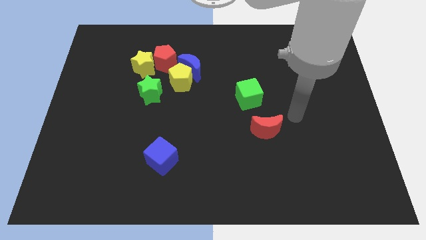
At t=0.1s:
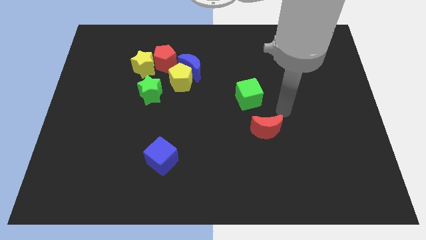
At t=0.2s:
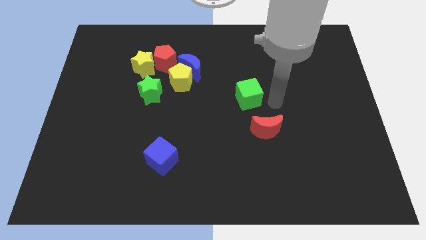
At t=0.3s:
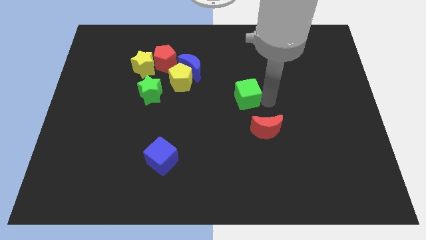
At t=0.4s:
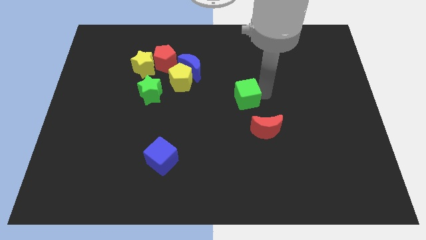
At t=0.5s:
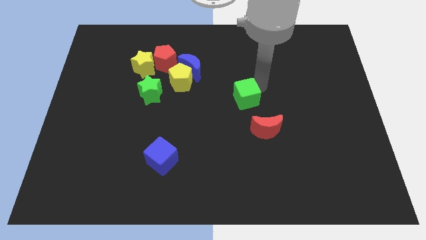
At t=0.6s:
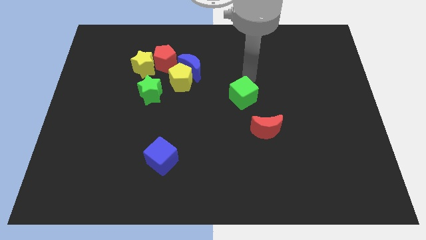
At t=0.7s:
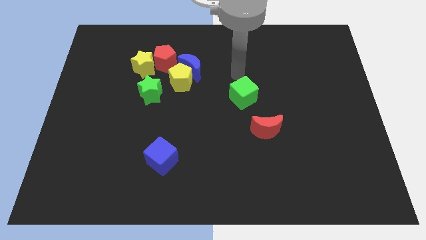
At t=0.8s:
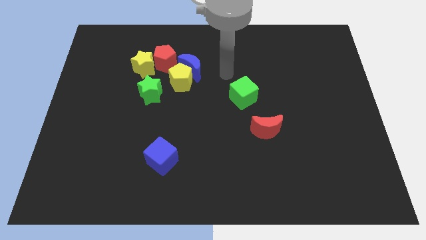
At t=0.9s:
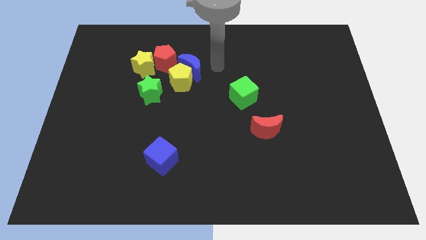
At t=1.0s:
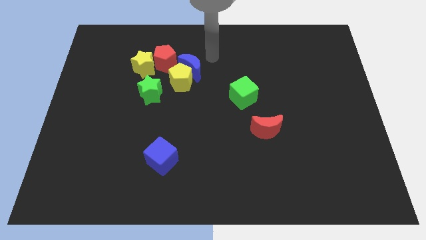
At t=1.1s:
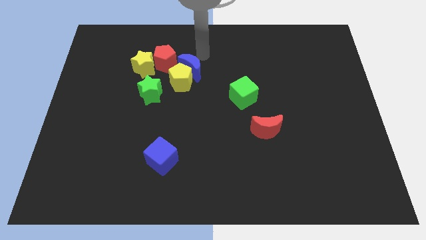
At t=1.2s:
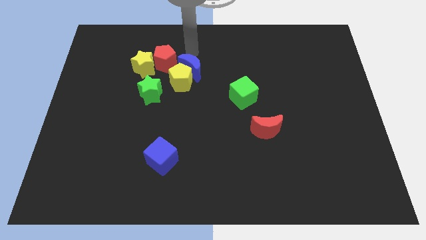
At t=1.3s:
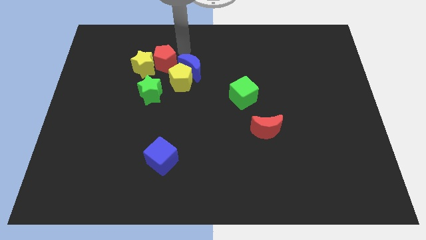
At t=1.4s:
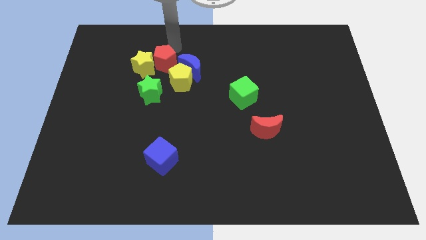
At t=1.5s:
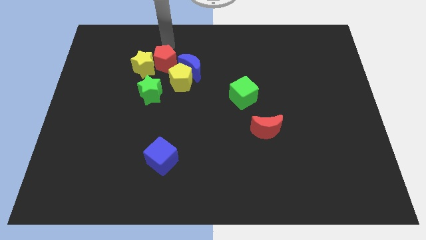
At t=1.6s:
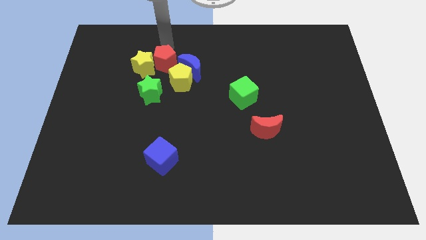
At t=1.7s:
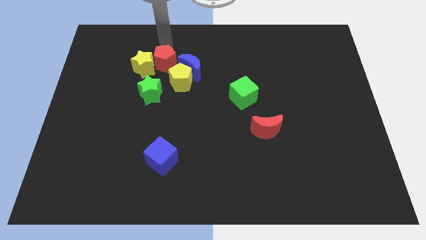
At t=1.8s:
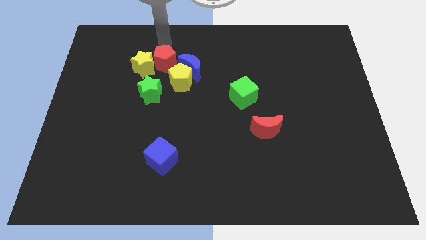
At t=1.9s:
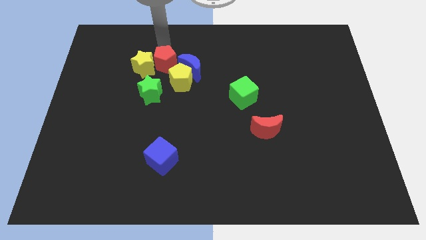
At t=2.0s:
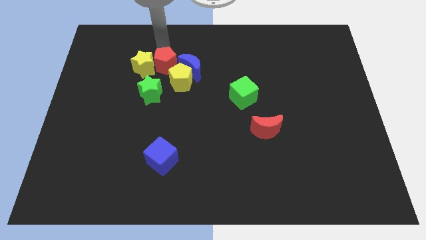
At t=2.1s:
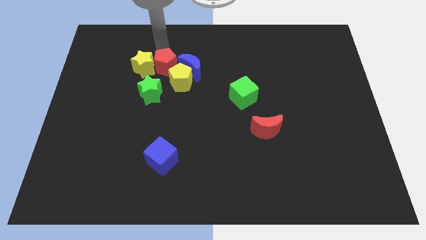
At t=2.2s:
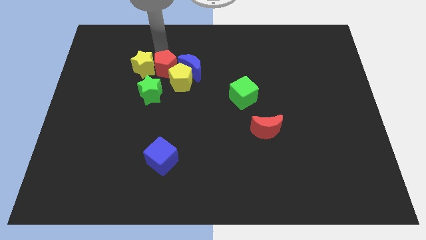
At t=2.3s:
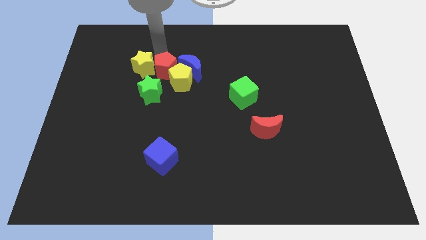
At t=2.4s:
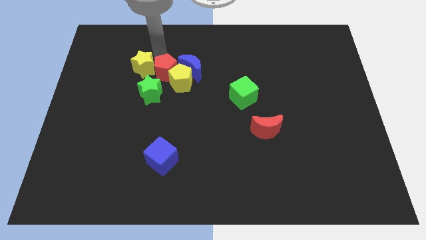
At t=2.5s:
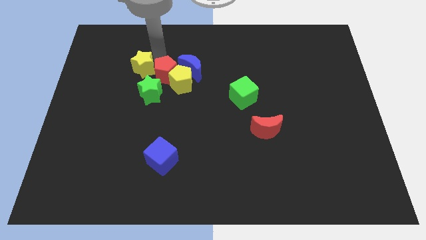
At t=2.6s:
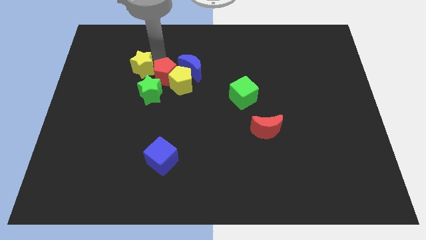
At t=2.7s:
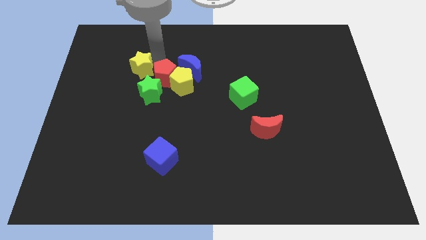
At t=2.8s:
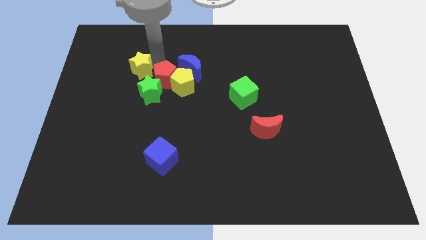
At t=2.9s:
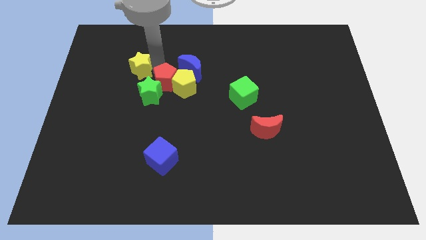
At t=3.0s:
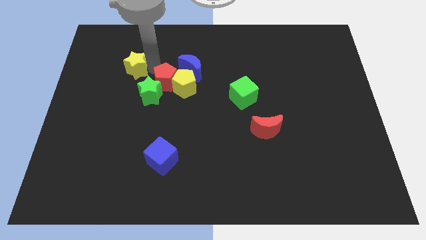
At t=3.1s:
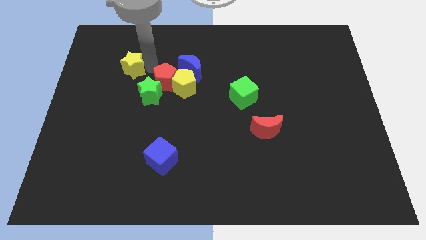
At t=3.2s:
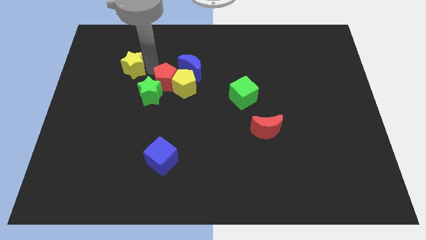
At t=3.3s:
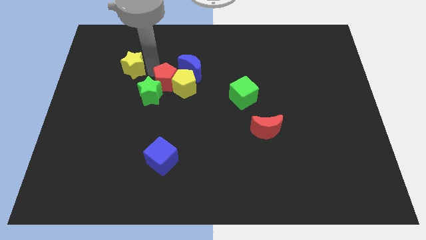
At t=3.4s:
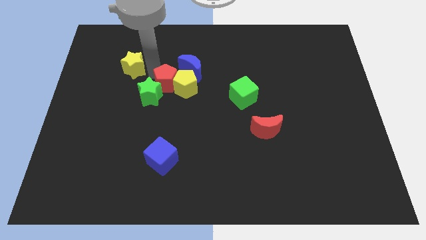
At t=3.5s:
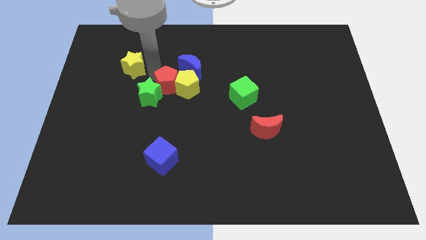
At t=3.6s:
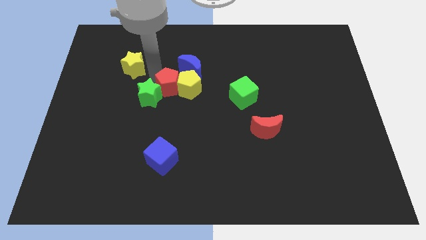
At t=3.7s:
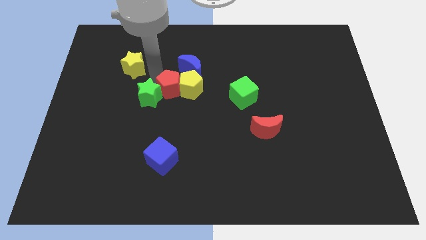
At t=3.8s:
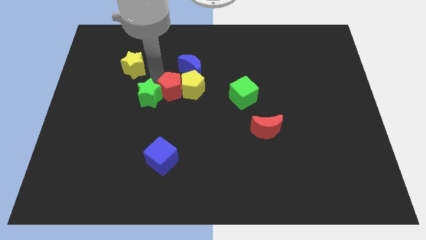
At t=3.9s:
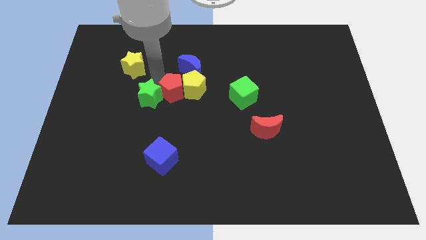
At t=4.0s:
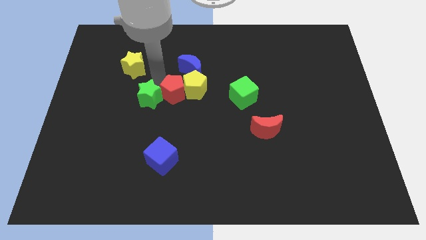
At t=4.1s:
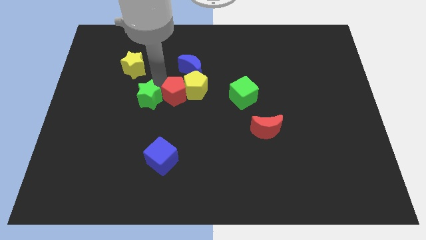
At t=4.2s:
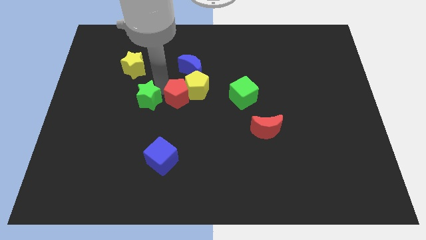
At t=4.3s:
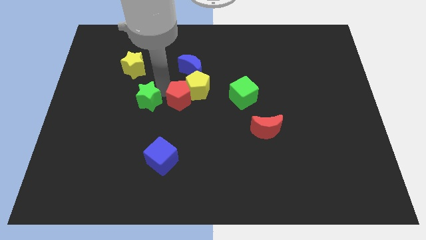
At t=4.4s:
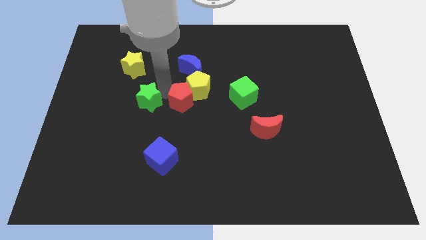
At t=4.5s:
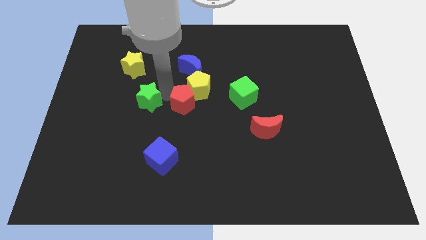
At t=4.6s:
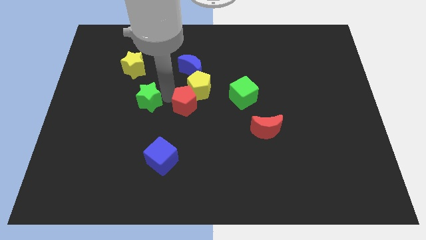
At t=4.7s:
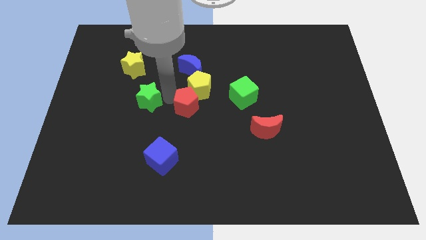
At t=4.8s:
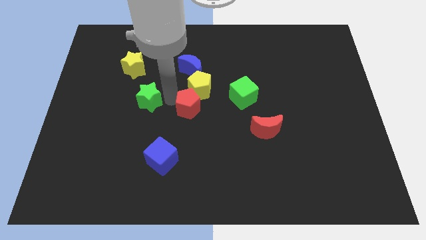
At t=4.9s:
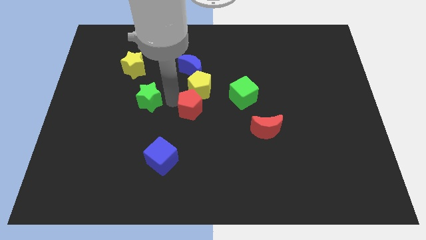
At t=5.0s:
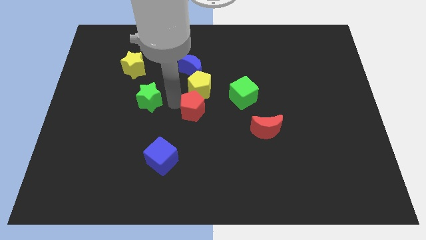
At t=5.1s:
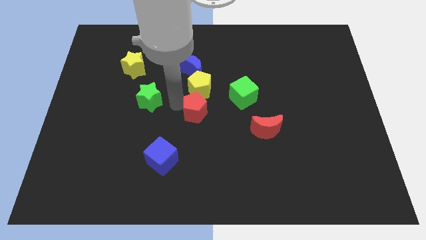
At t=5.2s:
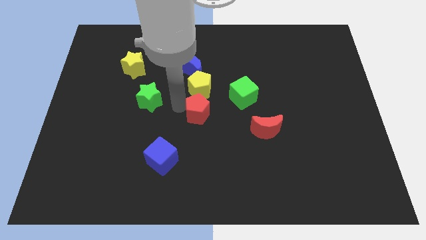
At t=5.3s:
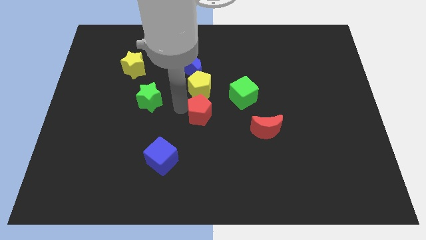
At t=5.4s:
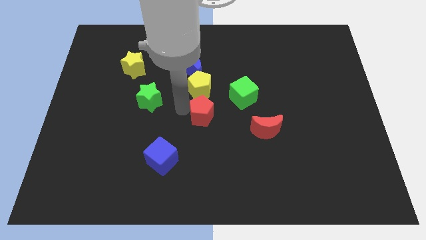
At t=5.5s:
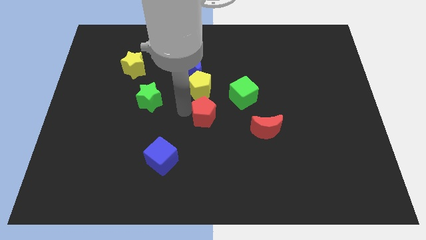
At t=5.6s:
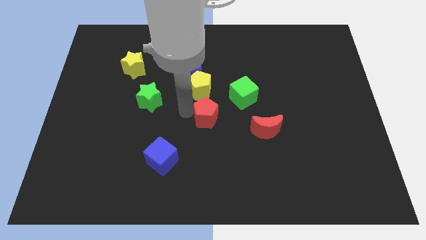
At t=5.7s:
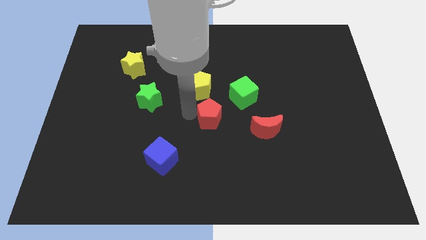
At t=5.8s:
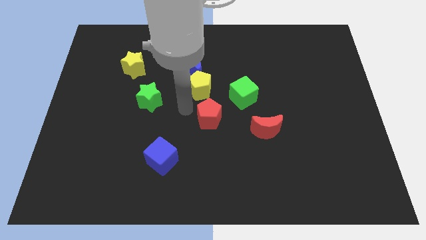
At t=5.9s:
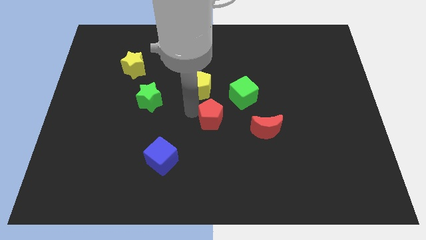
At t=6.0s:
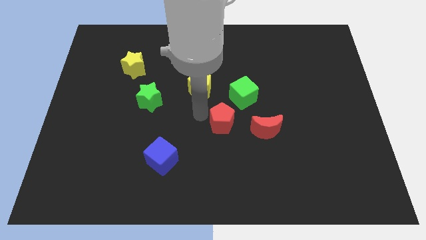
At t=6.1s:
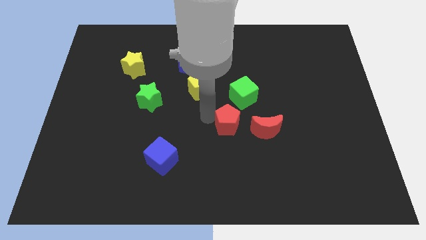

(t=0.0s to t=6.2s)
slide the red pentagon to the bottom of the green cube
